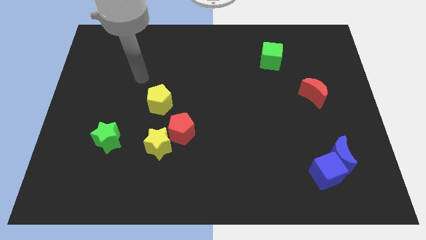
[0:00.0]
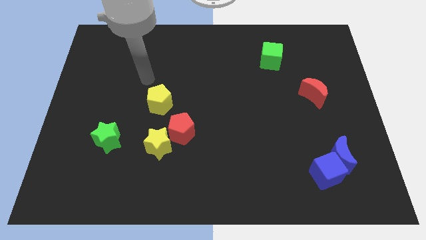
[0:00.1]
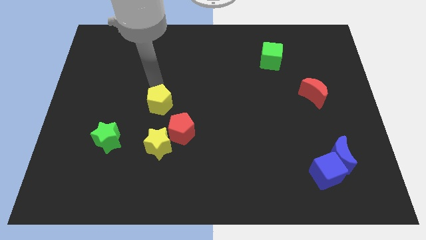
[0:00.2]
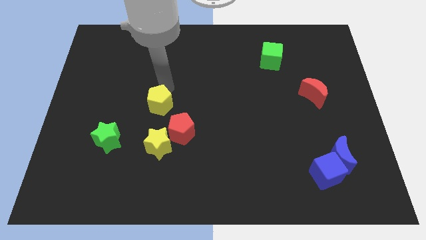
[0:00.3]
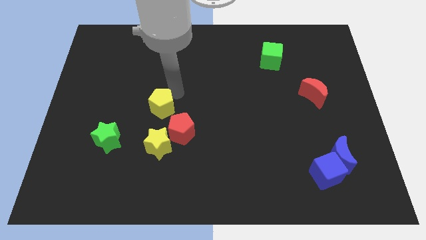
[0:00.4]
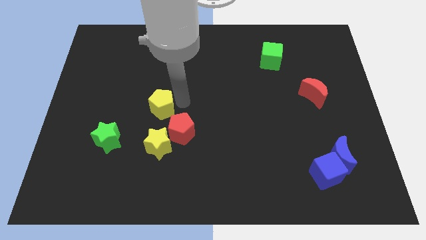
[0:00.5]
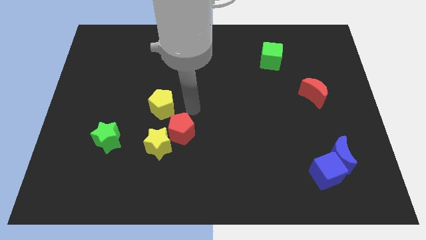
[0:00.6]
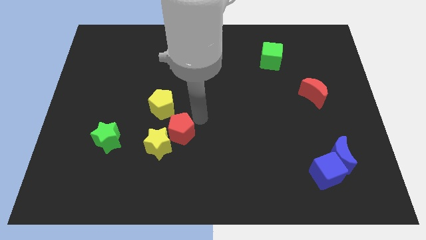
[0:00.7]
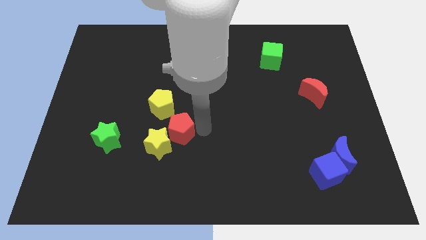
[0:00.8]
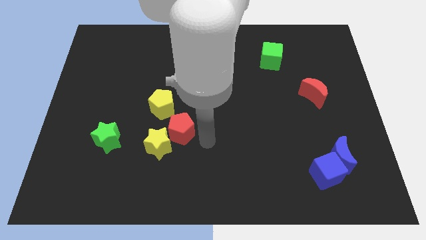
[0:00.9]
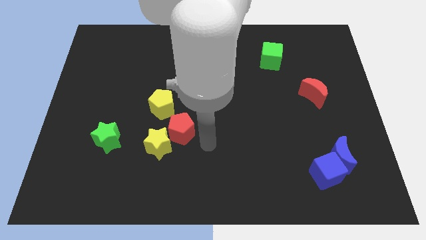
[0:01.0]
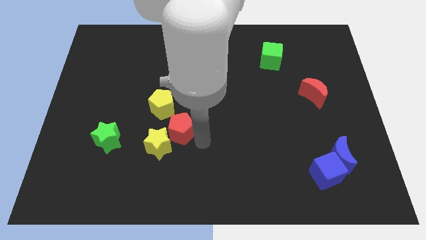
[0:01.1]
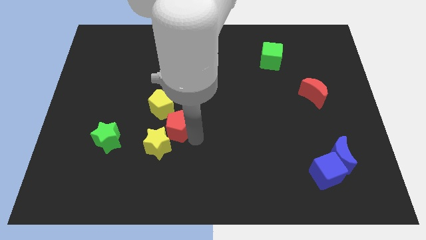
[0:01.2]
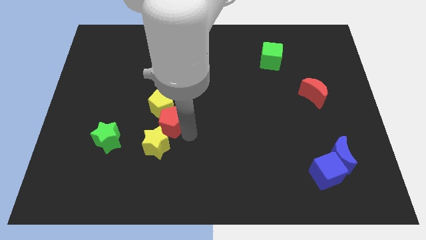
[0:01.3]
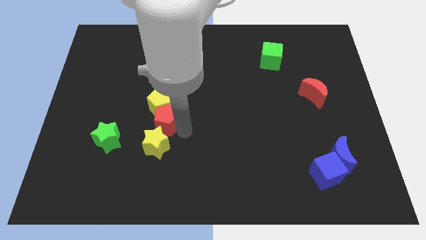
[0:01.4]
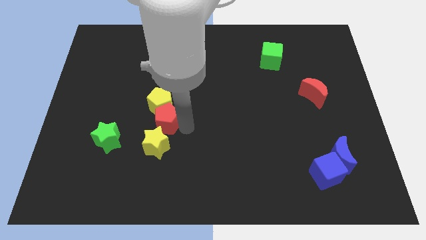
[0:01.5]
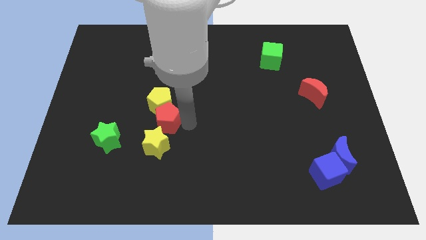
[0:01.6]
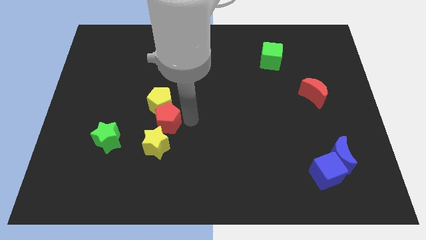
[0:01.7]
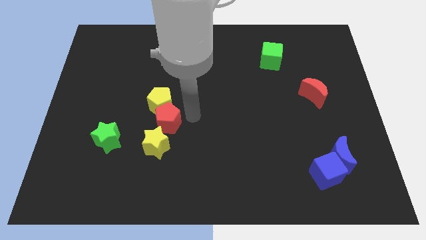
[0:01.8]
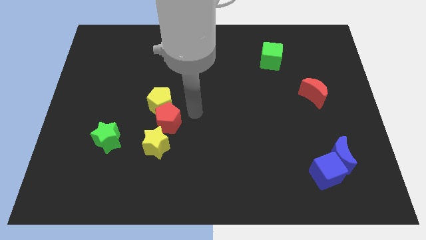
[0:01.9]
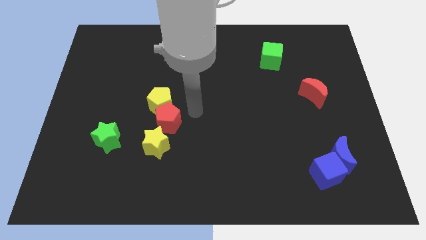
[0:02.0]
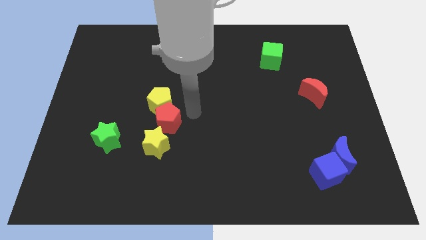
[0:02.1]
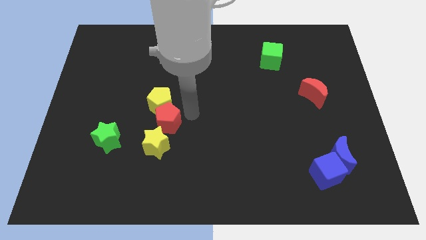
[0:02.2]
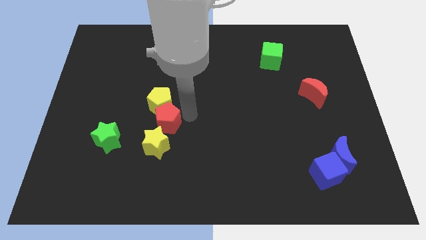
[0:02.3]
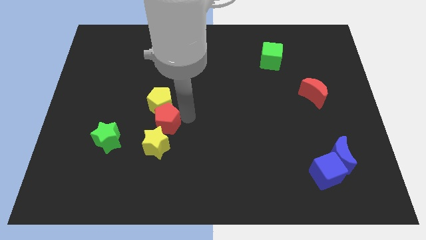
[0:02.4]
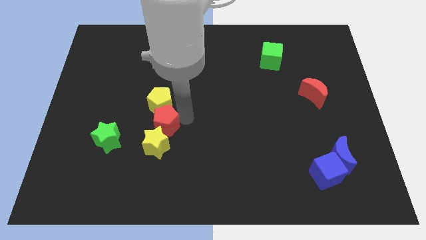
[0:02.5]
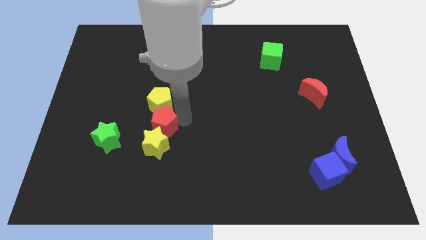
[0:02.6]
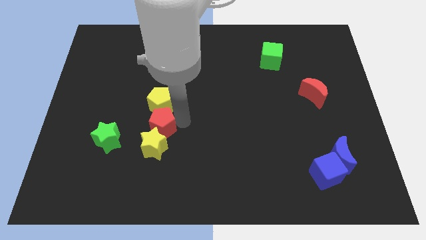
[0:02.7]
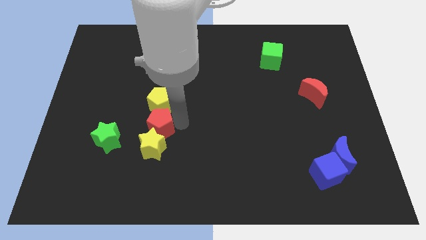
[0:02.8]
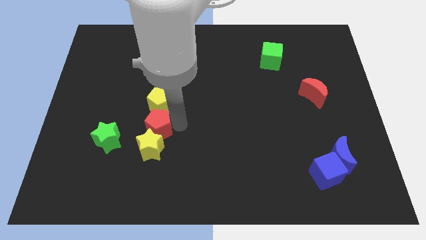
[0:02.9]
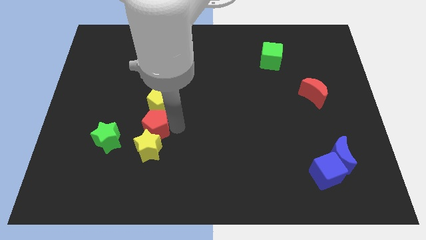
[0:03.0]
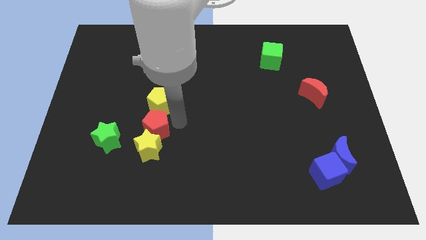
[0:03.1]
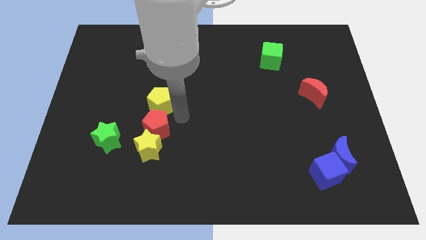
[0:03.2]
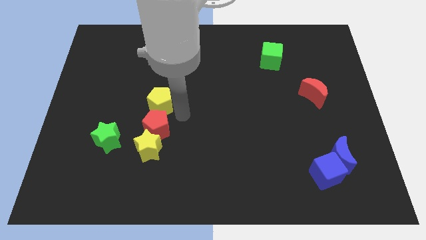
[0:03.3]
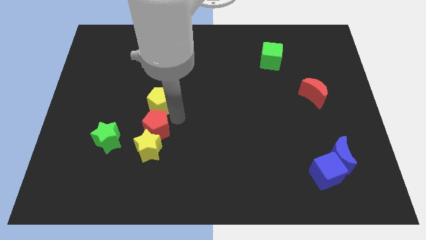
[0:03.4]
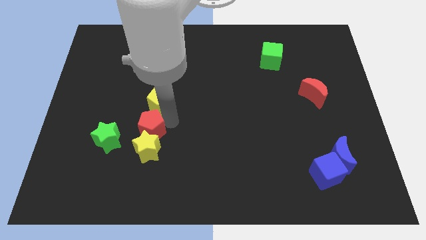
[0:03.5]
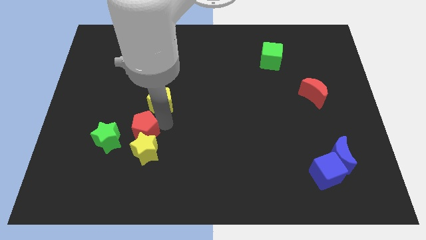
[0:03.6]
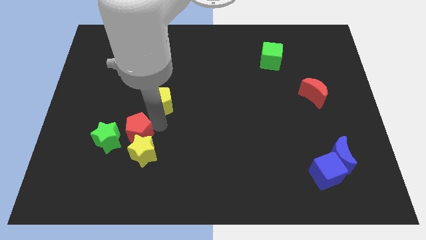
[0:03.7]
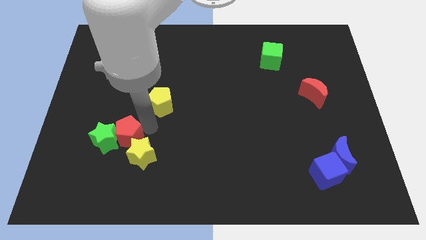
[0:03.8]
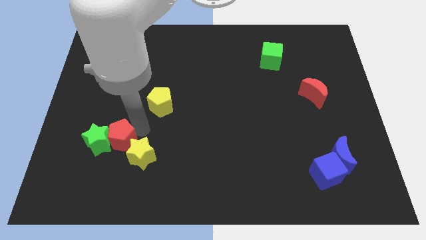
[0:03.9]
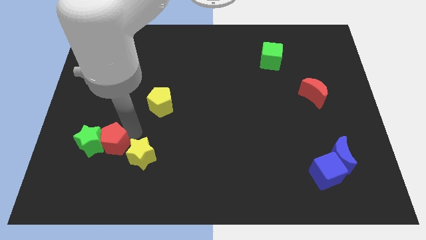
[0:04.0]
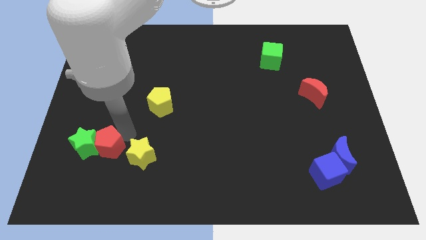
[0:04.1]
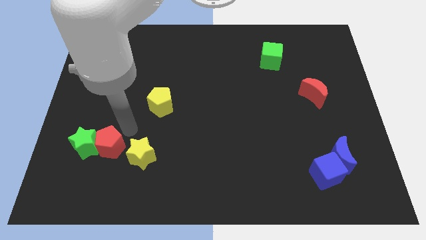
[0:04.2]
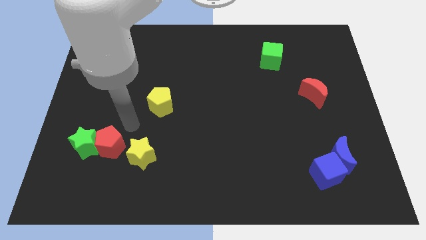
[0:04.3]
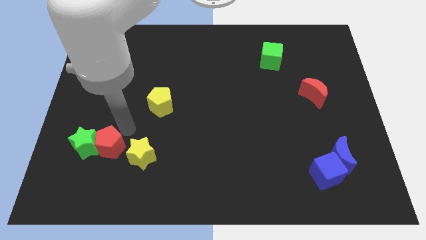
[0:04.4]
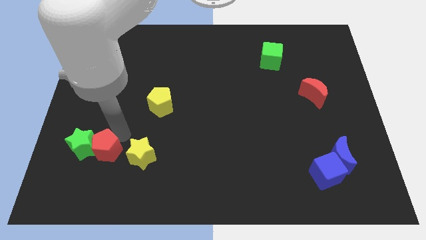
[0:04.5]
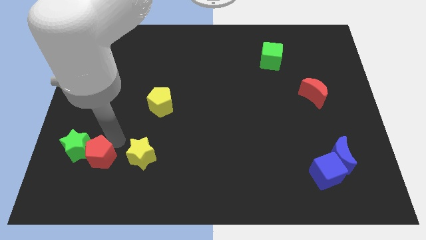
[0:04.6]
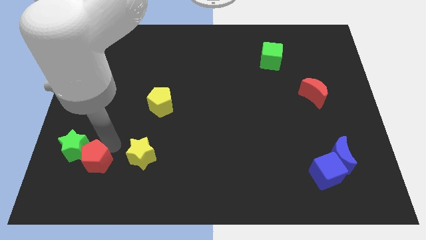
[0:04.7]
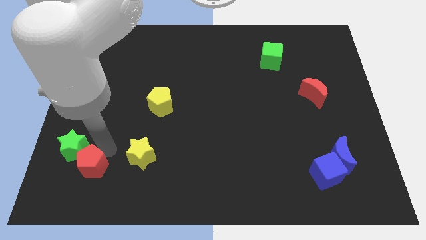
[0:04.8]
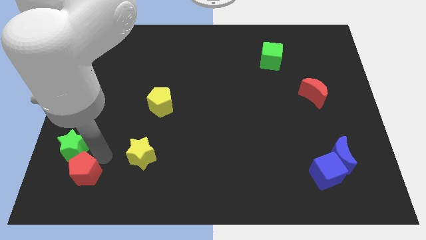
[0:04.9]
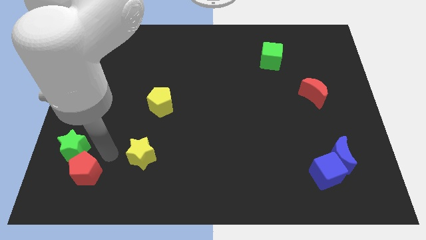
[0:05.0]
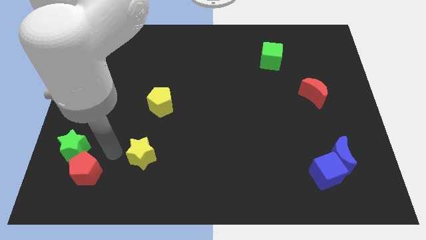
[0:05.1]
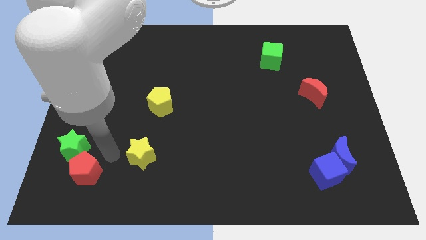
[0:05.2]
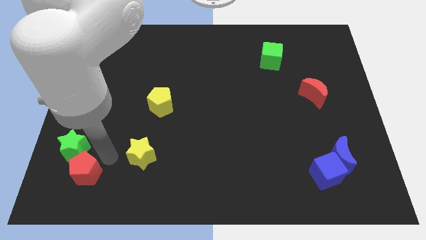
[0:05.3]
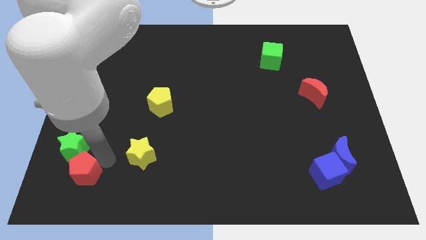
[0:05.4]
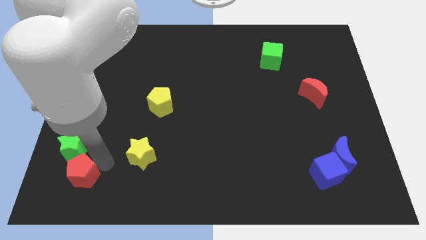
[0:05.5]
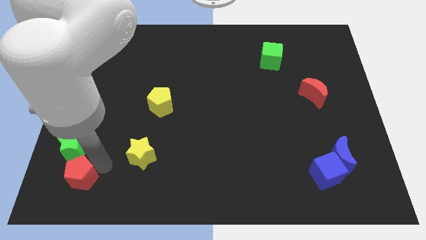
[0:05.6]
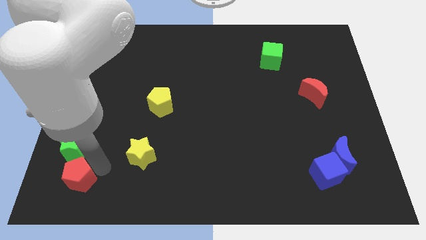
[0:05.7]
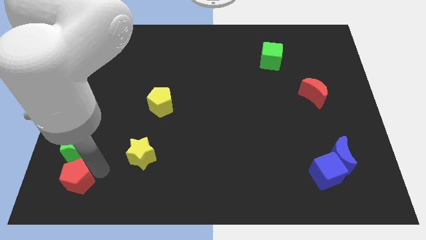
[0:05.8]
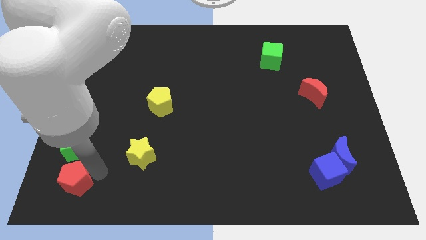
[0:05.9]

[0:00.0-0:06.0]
push the red pentagon to the bottom left
